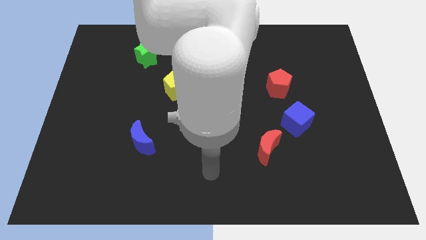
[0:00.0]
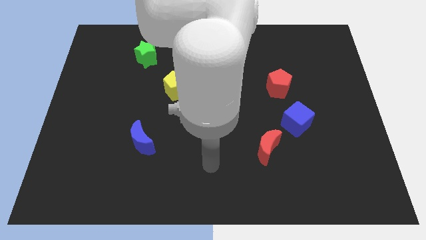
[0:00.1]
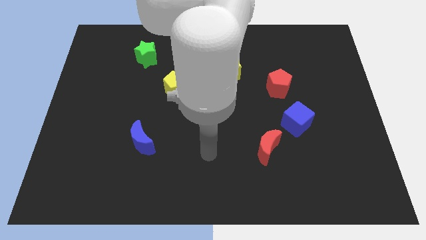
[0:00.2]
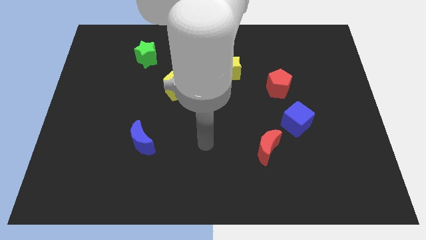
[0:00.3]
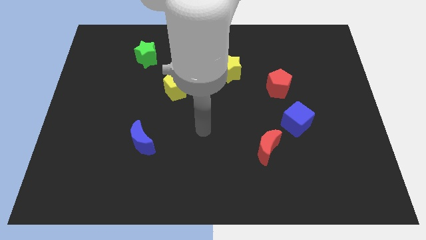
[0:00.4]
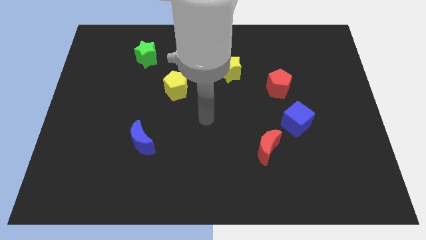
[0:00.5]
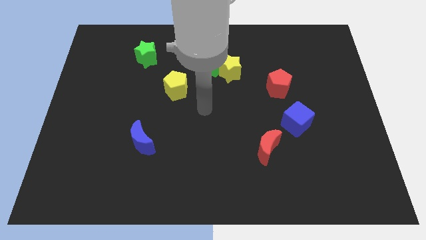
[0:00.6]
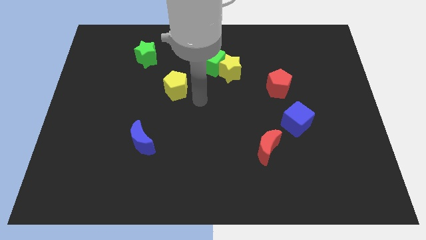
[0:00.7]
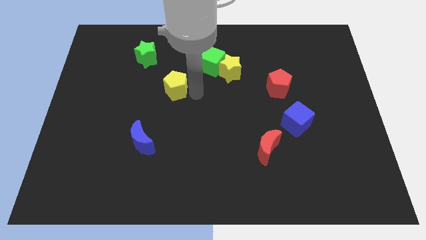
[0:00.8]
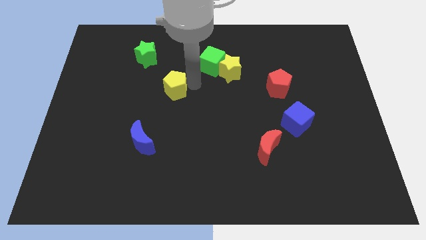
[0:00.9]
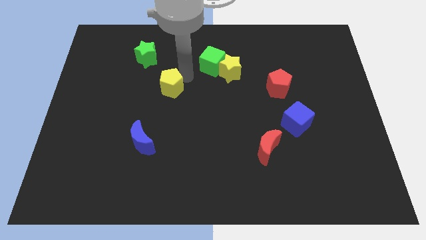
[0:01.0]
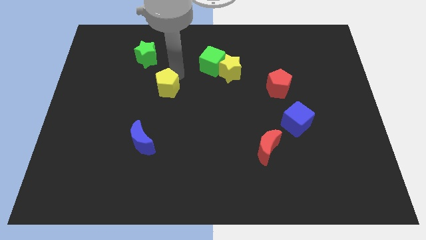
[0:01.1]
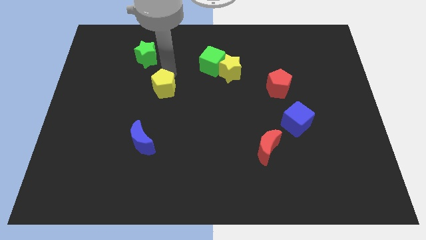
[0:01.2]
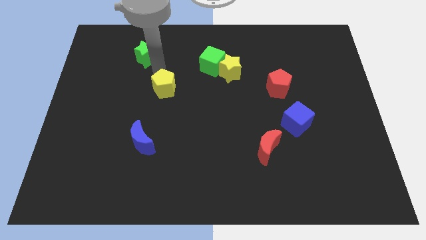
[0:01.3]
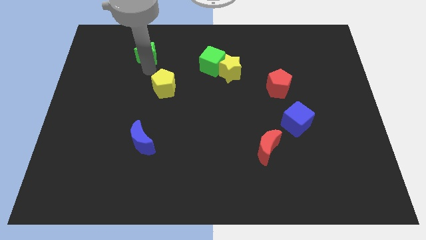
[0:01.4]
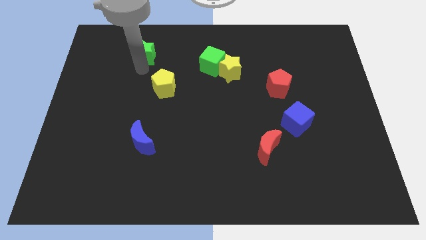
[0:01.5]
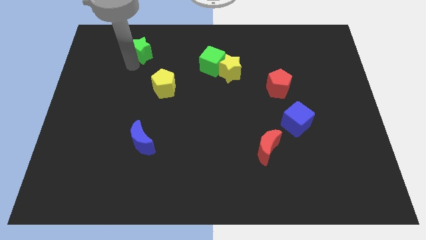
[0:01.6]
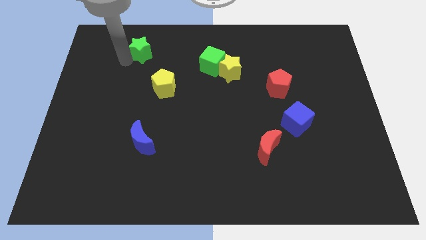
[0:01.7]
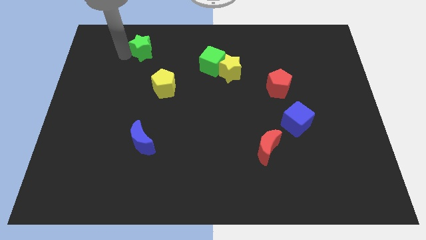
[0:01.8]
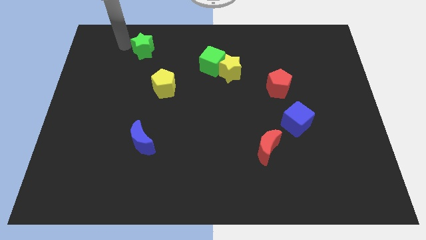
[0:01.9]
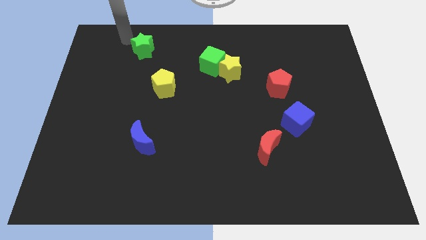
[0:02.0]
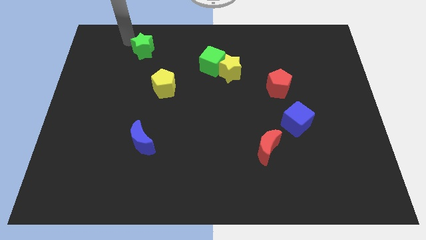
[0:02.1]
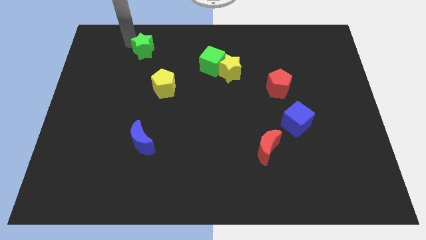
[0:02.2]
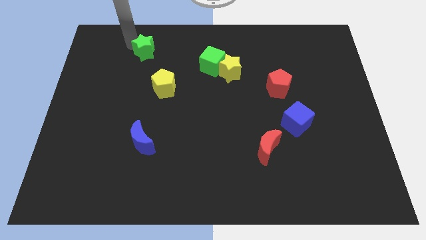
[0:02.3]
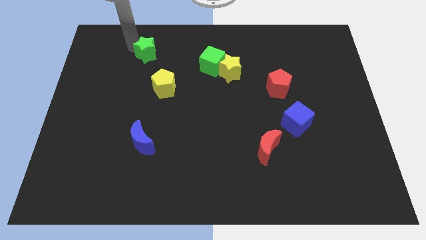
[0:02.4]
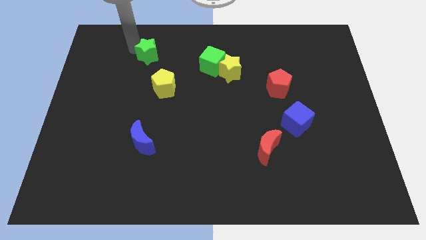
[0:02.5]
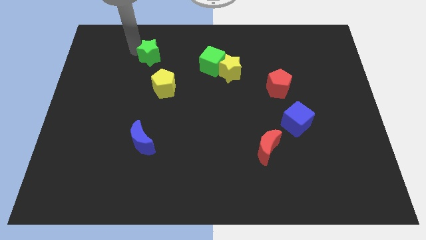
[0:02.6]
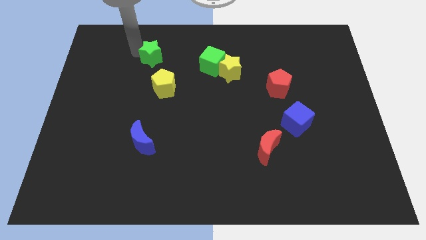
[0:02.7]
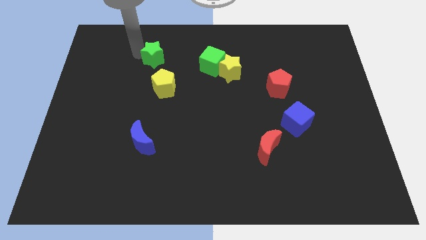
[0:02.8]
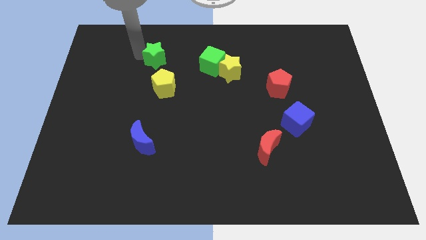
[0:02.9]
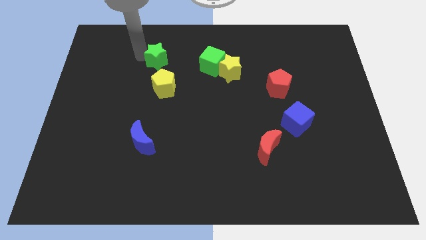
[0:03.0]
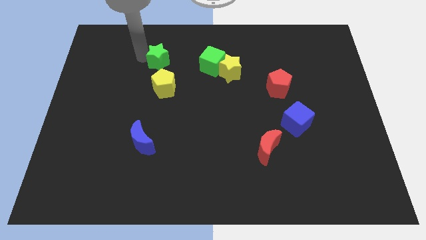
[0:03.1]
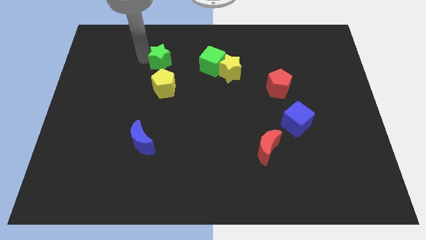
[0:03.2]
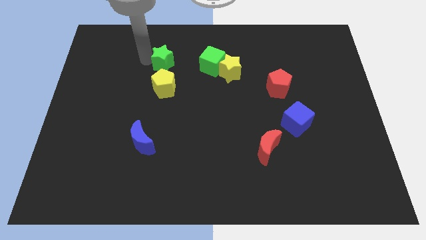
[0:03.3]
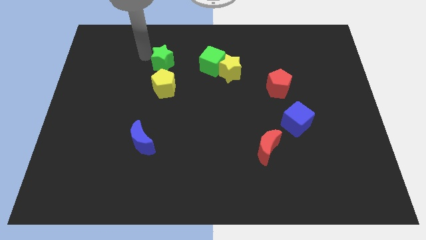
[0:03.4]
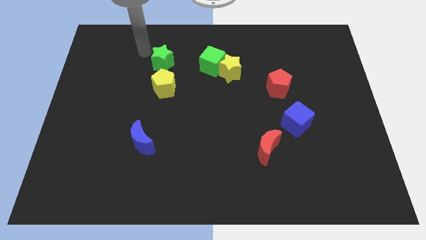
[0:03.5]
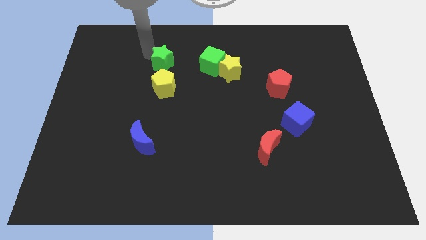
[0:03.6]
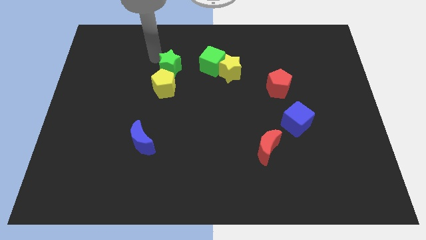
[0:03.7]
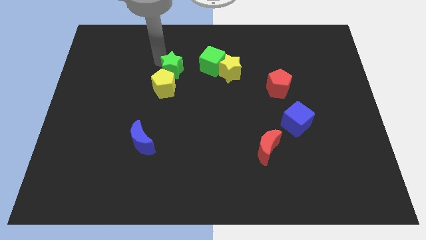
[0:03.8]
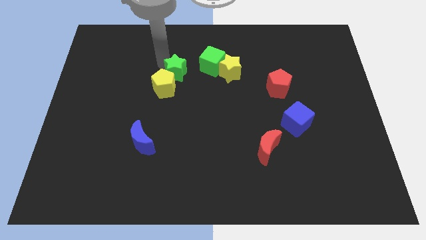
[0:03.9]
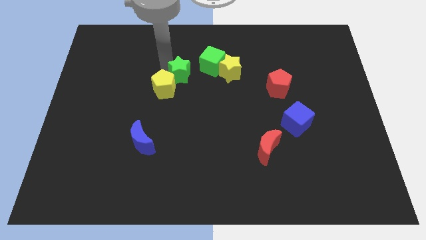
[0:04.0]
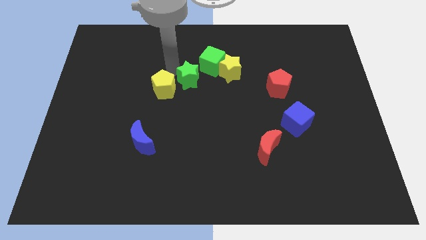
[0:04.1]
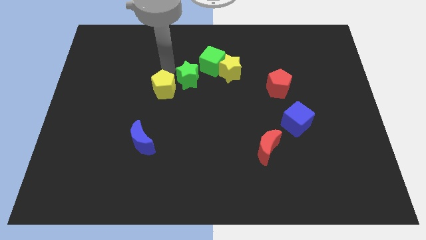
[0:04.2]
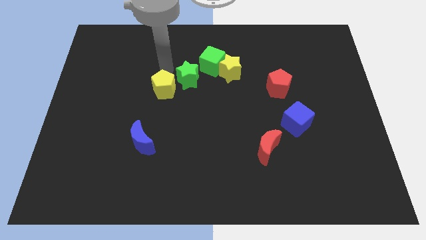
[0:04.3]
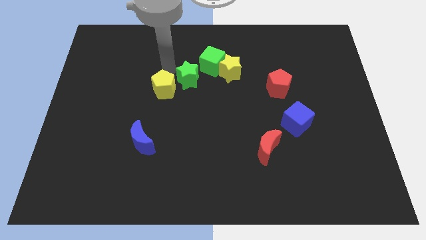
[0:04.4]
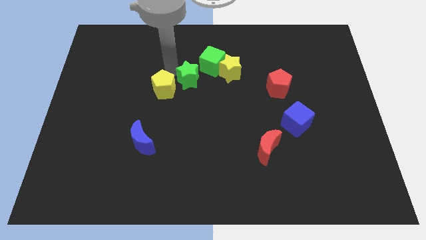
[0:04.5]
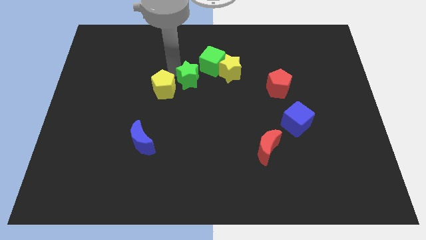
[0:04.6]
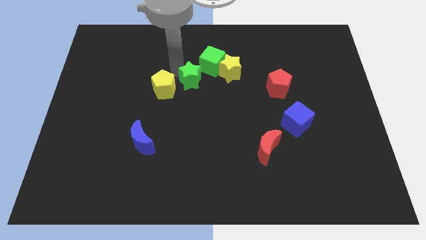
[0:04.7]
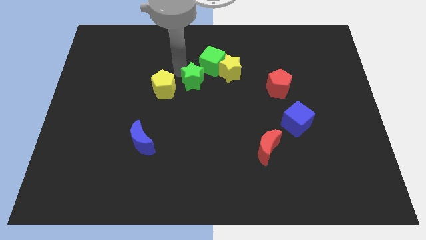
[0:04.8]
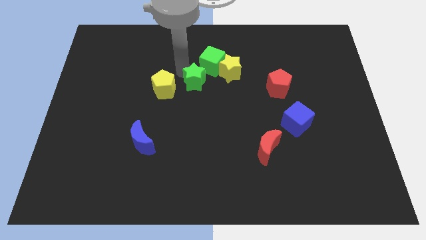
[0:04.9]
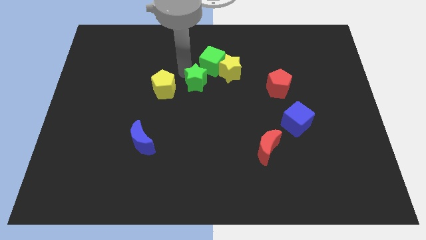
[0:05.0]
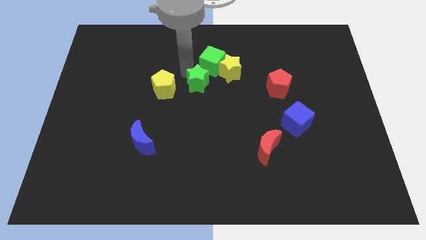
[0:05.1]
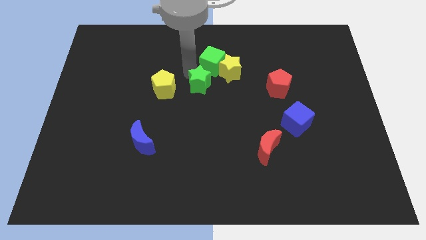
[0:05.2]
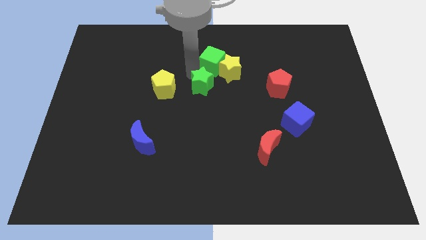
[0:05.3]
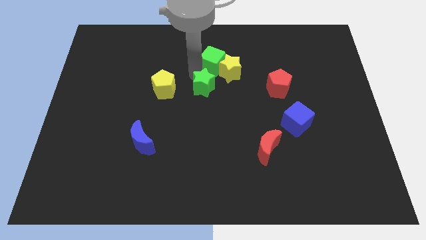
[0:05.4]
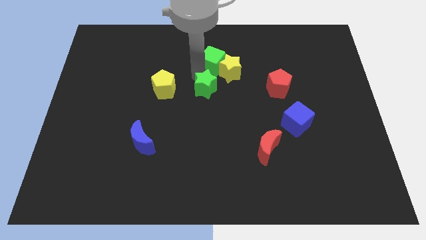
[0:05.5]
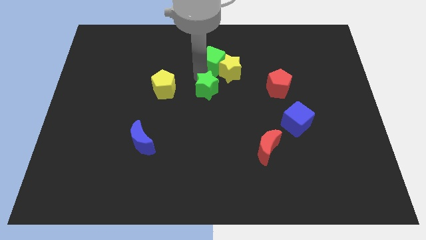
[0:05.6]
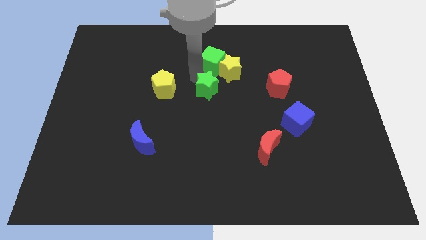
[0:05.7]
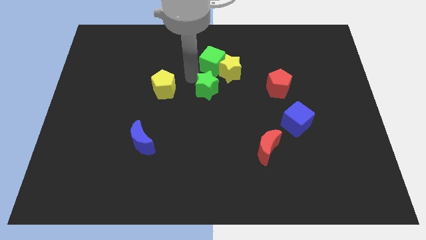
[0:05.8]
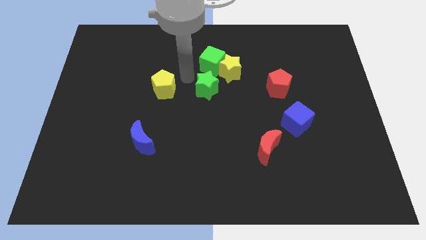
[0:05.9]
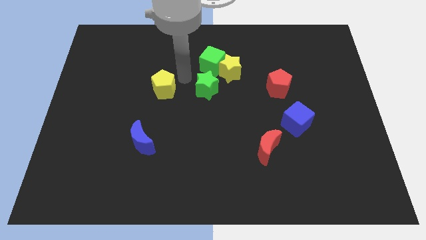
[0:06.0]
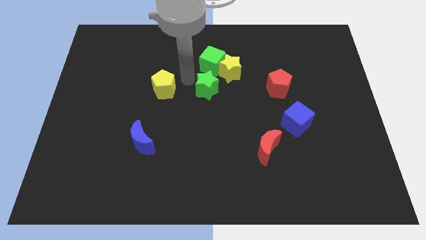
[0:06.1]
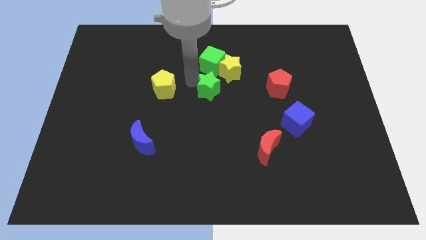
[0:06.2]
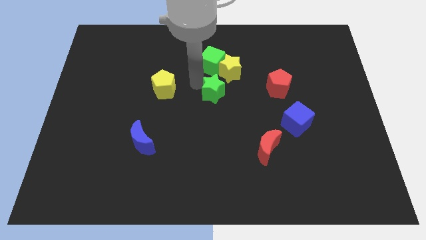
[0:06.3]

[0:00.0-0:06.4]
move the green star diagonally down and to the right

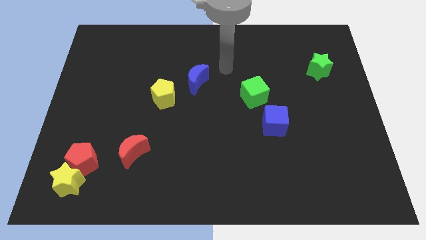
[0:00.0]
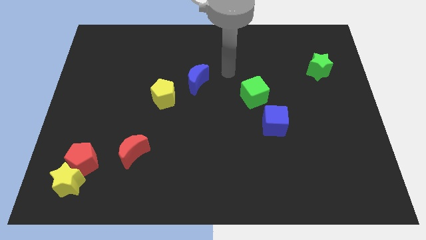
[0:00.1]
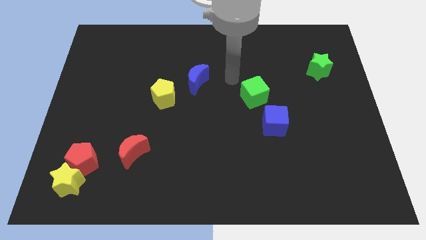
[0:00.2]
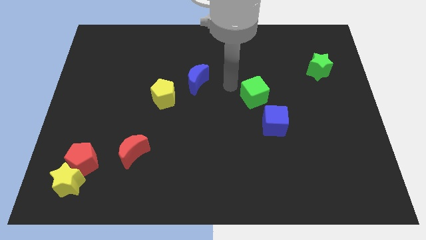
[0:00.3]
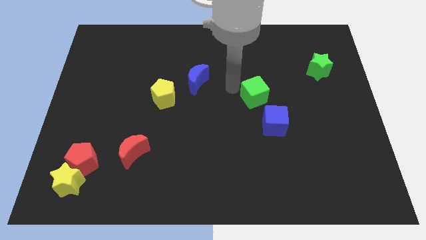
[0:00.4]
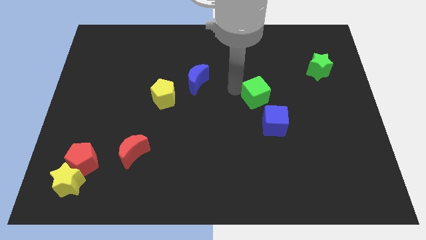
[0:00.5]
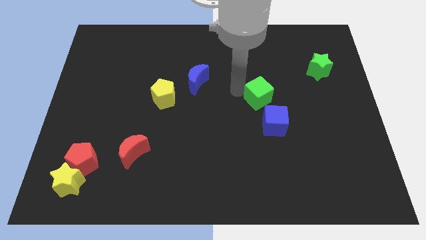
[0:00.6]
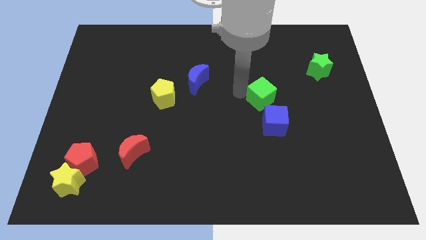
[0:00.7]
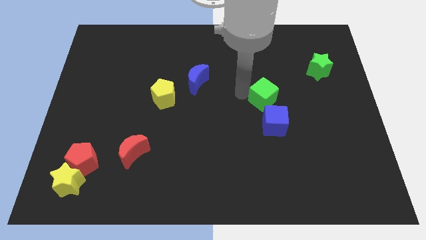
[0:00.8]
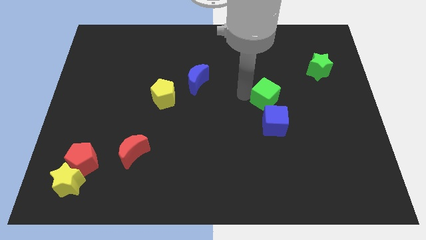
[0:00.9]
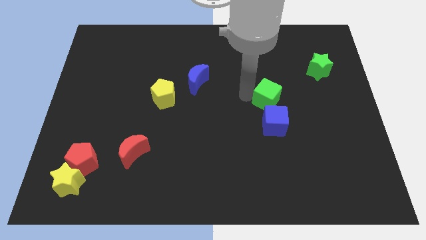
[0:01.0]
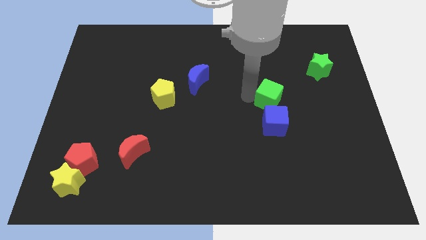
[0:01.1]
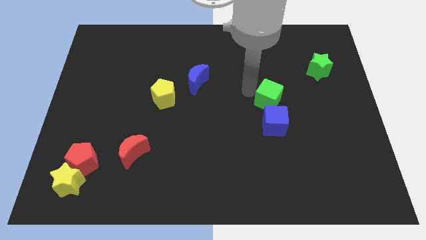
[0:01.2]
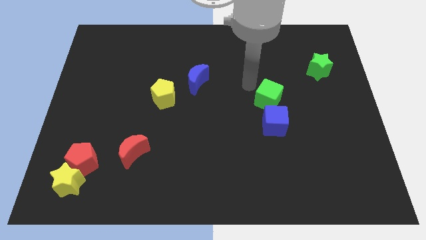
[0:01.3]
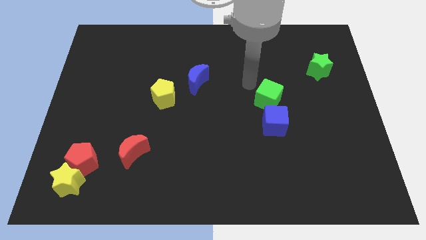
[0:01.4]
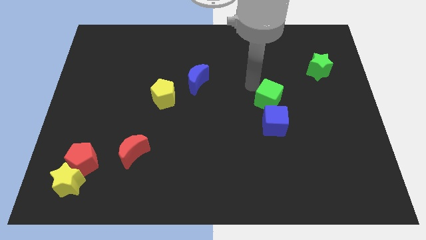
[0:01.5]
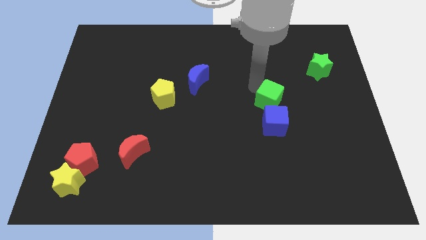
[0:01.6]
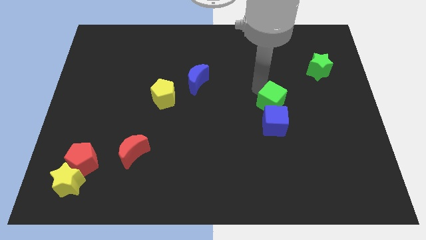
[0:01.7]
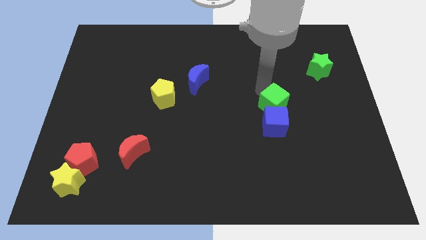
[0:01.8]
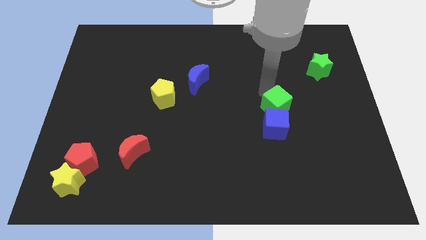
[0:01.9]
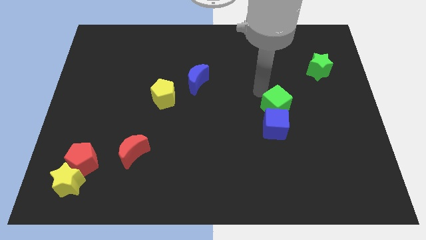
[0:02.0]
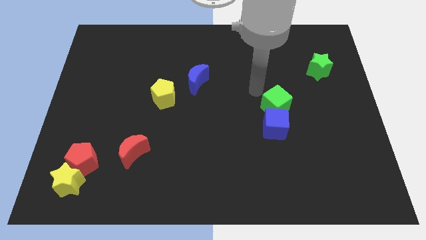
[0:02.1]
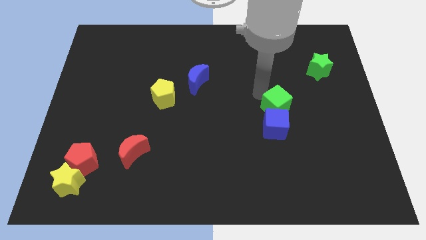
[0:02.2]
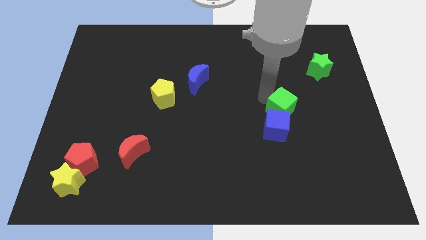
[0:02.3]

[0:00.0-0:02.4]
push the green cube down and right a bit
